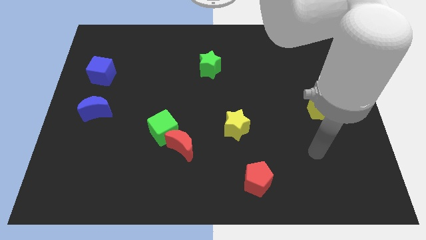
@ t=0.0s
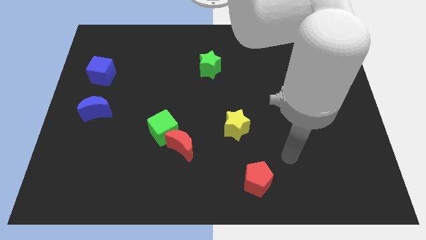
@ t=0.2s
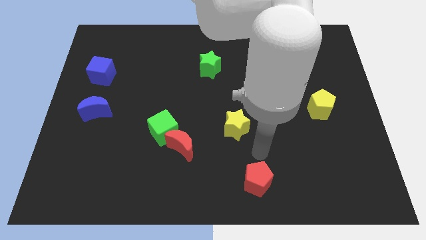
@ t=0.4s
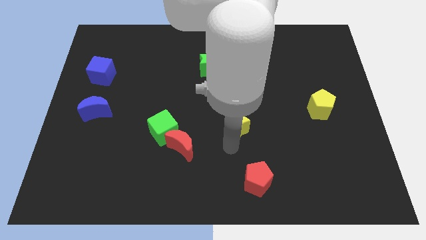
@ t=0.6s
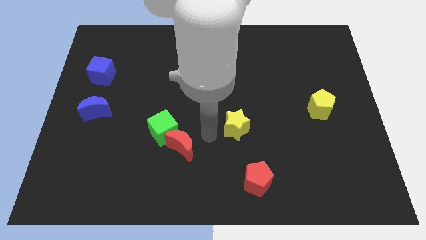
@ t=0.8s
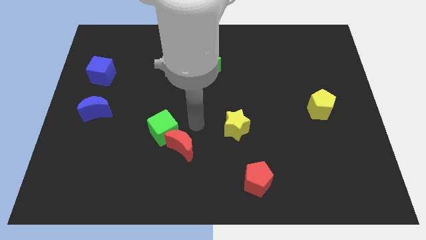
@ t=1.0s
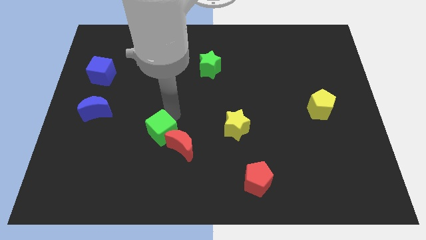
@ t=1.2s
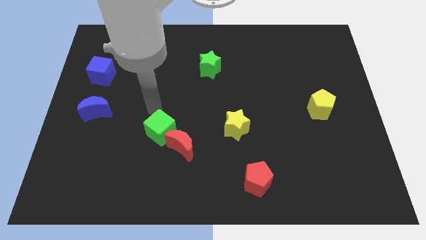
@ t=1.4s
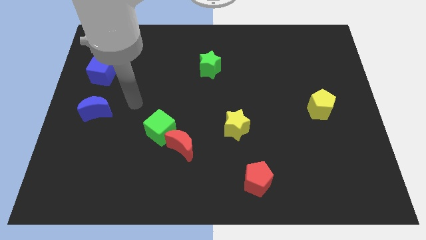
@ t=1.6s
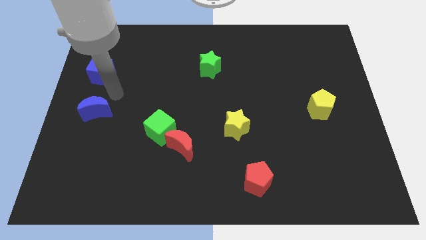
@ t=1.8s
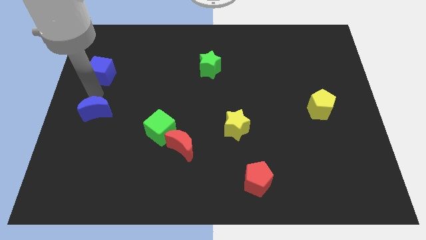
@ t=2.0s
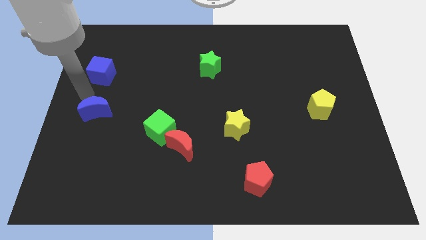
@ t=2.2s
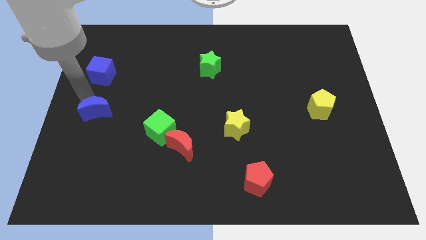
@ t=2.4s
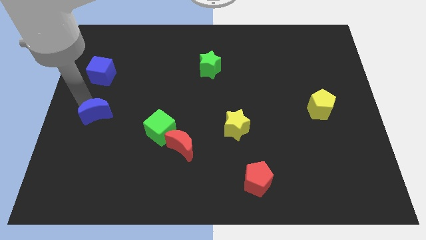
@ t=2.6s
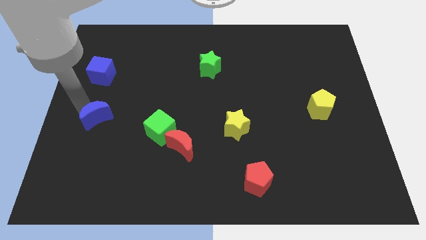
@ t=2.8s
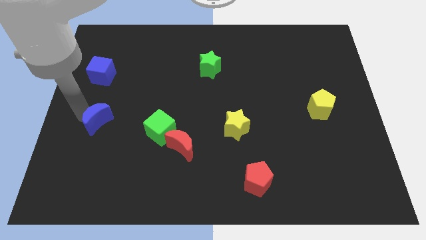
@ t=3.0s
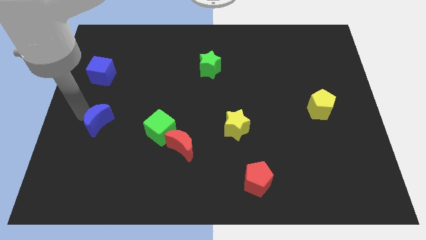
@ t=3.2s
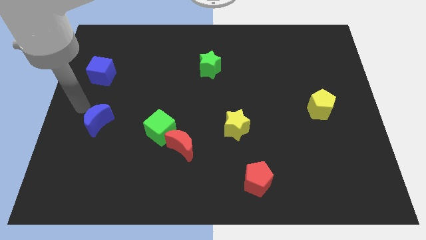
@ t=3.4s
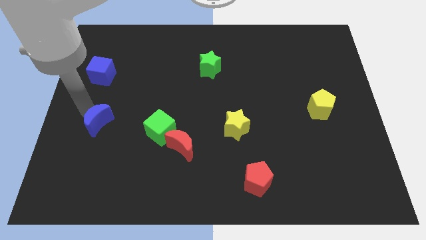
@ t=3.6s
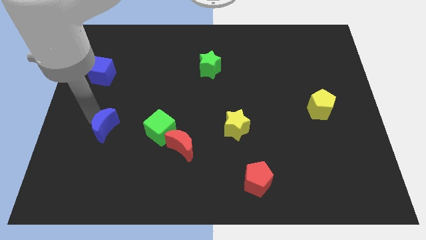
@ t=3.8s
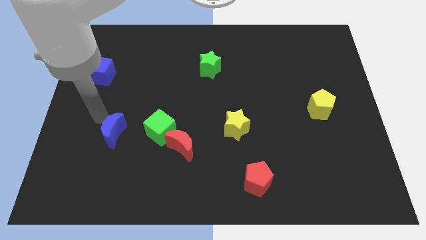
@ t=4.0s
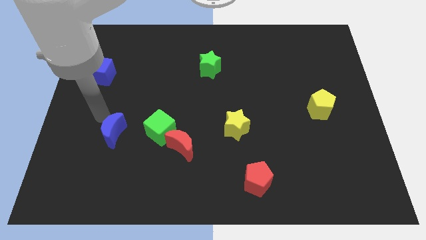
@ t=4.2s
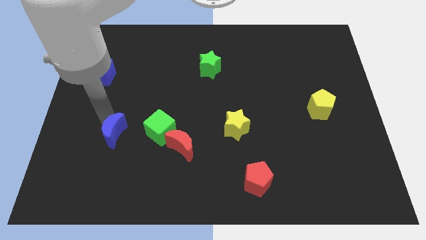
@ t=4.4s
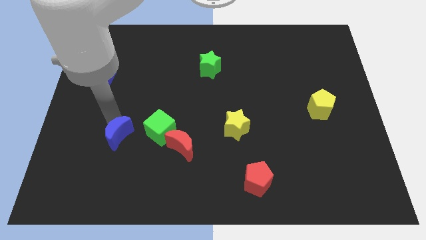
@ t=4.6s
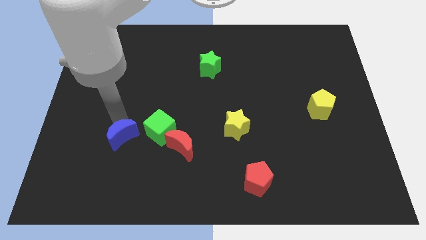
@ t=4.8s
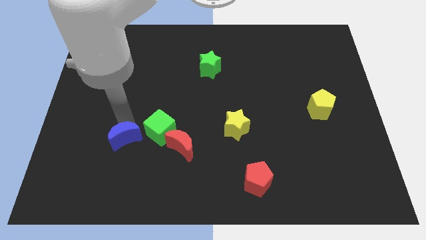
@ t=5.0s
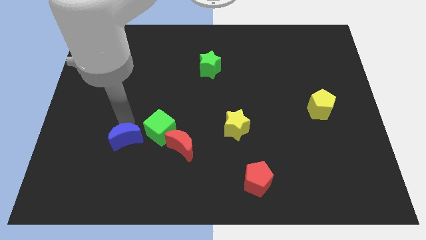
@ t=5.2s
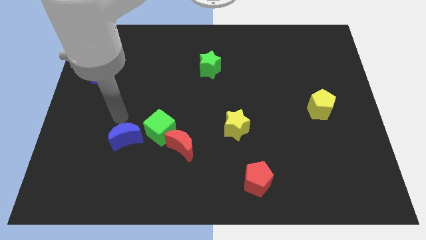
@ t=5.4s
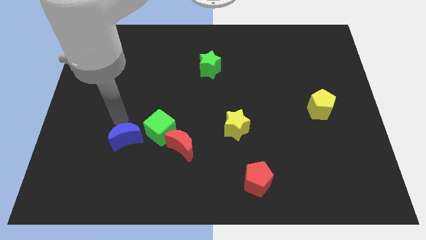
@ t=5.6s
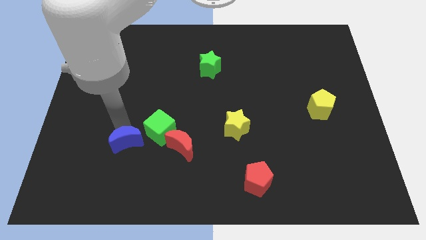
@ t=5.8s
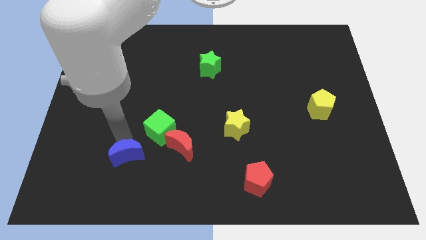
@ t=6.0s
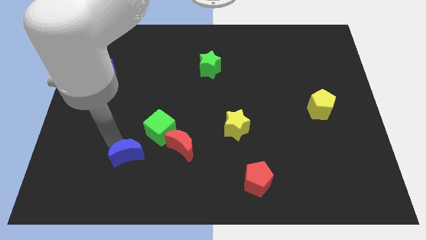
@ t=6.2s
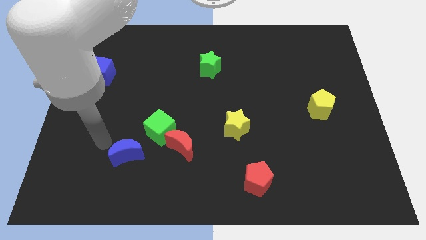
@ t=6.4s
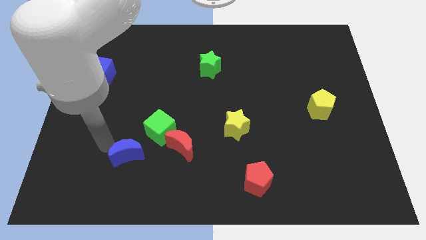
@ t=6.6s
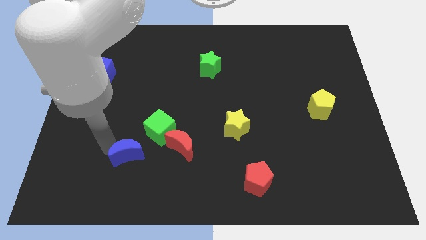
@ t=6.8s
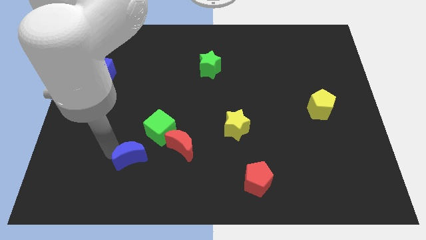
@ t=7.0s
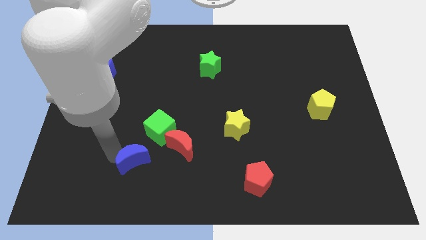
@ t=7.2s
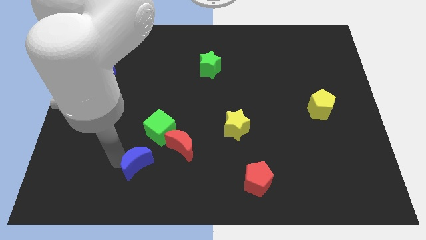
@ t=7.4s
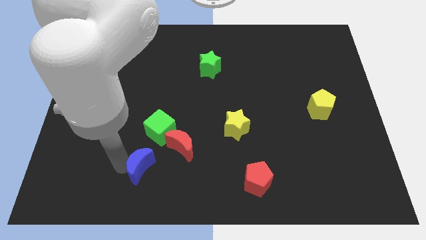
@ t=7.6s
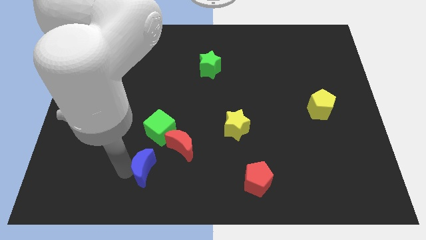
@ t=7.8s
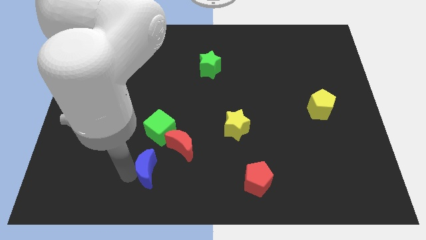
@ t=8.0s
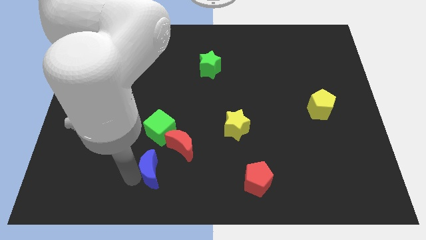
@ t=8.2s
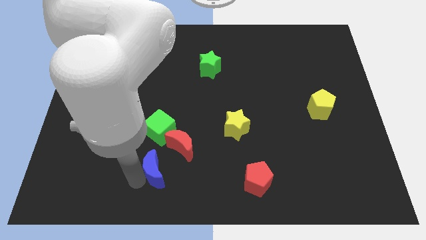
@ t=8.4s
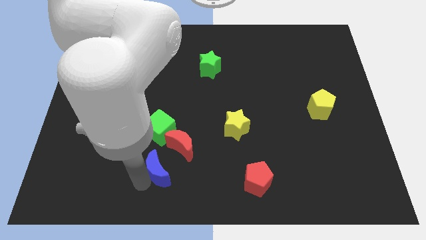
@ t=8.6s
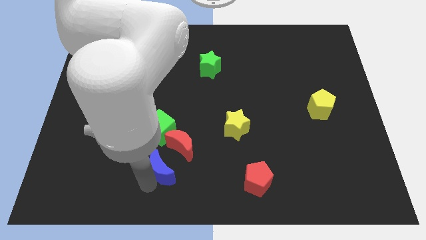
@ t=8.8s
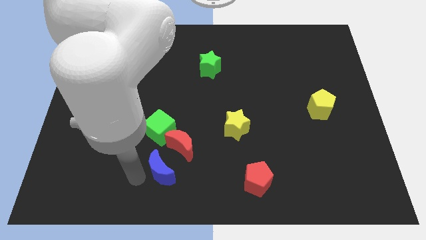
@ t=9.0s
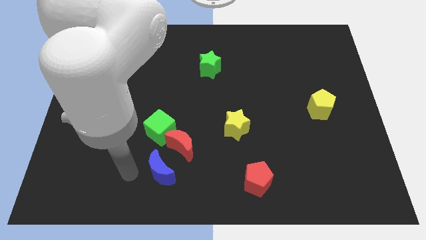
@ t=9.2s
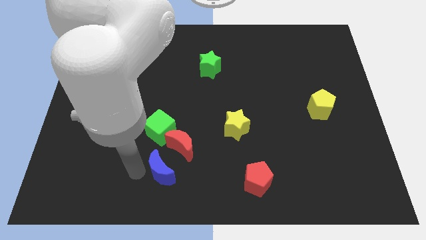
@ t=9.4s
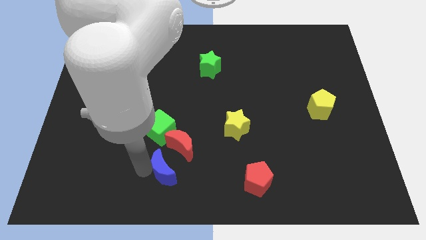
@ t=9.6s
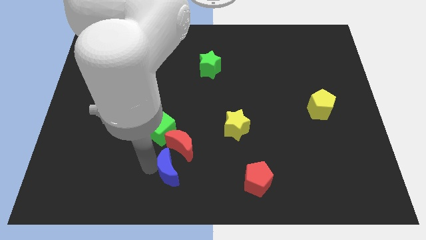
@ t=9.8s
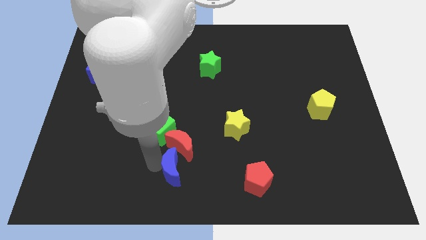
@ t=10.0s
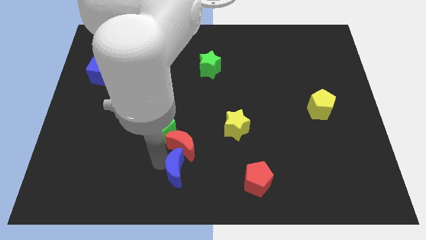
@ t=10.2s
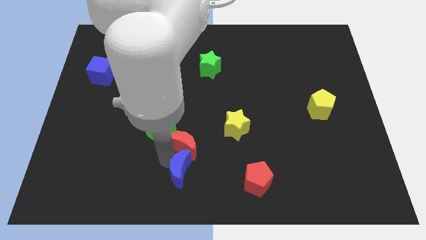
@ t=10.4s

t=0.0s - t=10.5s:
push the blue moon to the left of the red pentagon

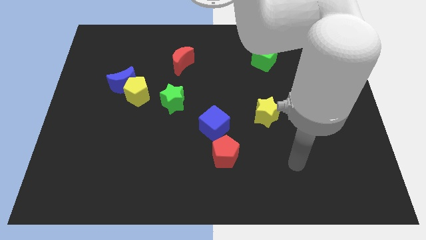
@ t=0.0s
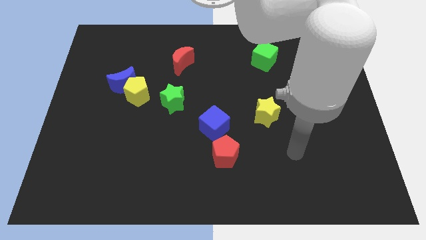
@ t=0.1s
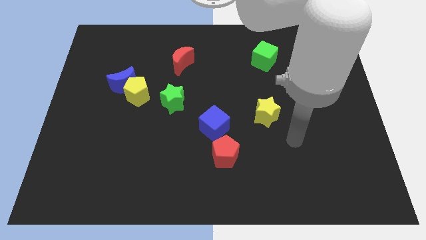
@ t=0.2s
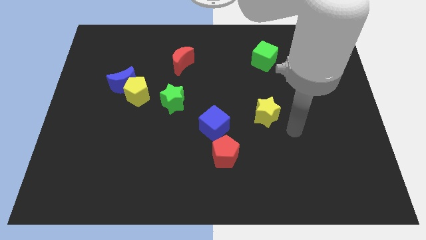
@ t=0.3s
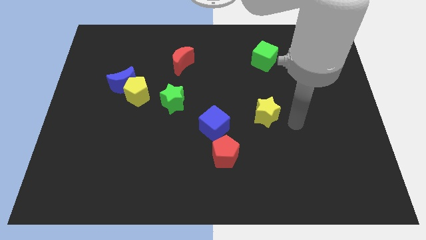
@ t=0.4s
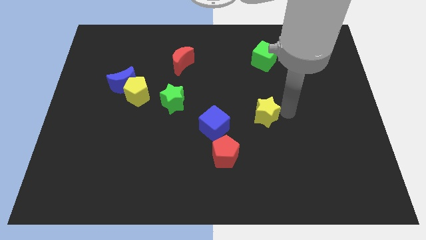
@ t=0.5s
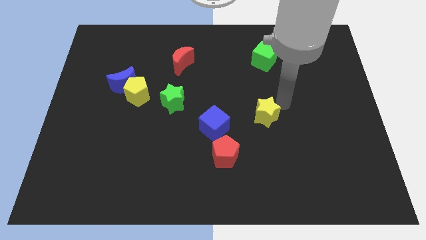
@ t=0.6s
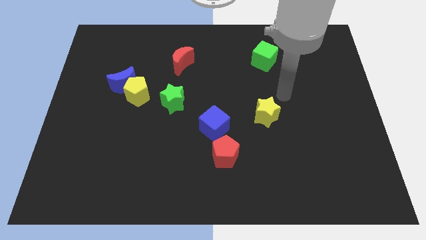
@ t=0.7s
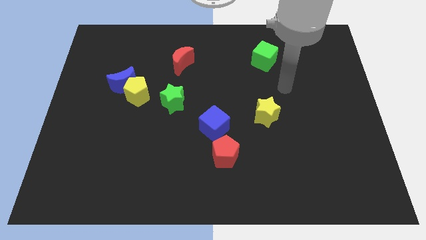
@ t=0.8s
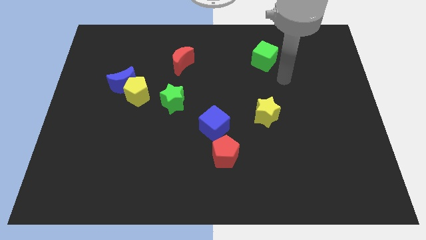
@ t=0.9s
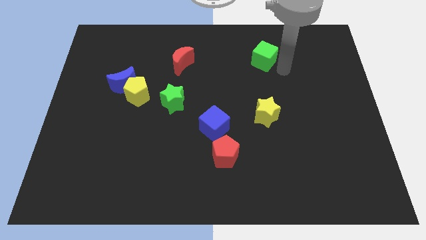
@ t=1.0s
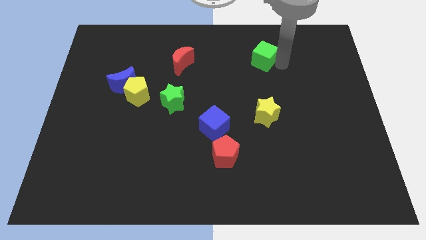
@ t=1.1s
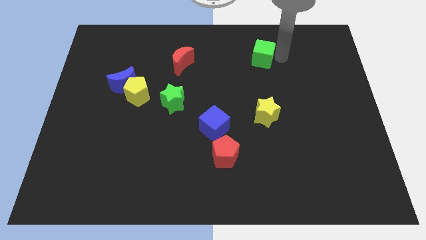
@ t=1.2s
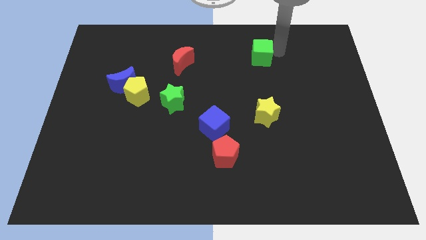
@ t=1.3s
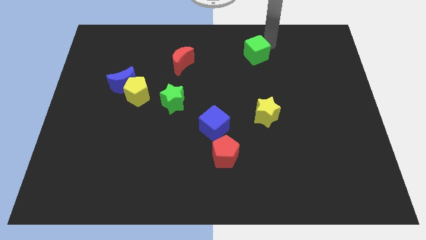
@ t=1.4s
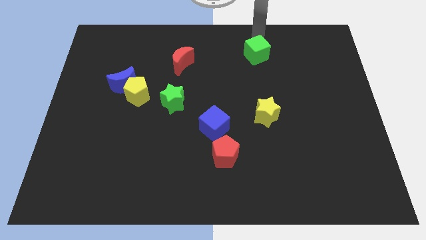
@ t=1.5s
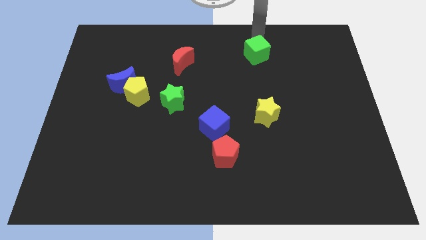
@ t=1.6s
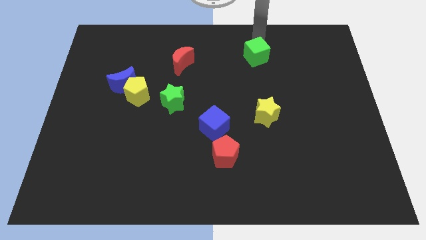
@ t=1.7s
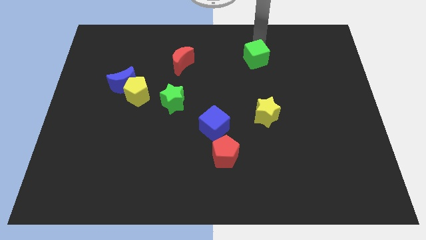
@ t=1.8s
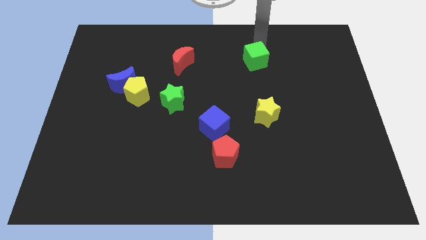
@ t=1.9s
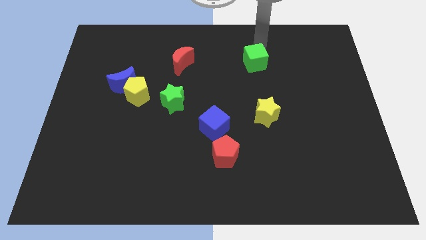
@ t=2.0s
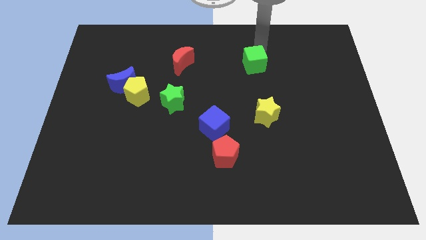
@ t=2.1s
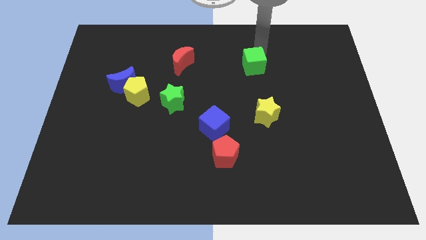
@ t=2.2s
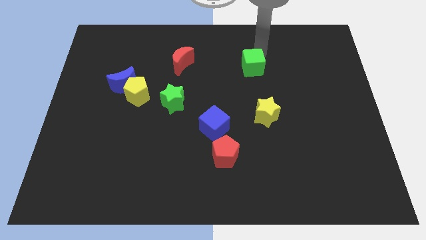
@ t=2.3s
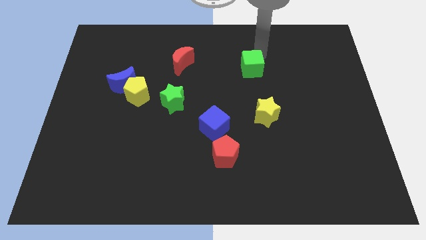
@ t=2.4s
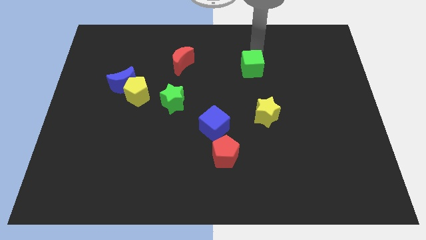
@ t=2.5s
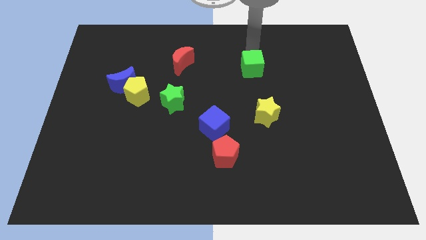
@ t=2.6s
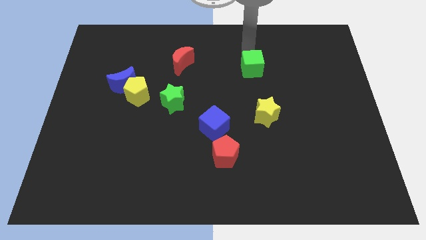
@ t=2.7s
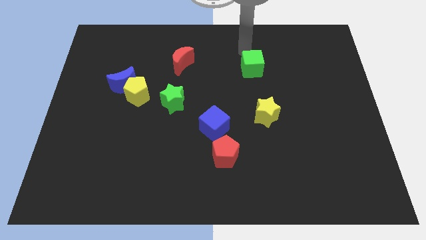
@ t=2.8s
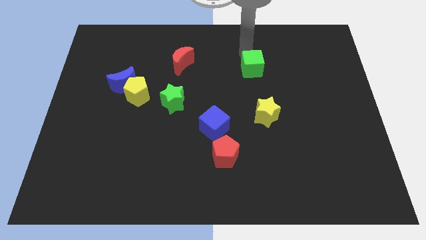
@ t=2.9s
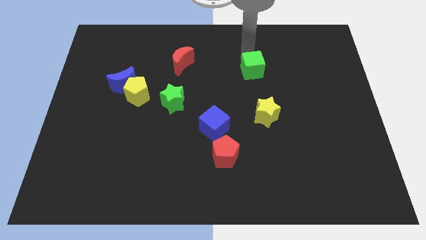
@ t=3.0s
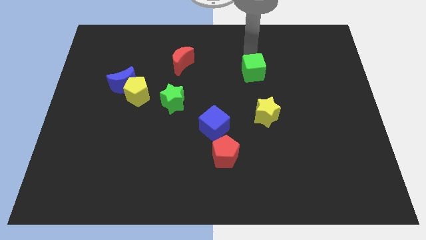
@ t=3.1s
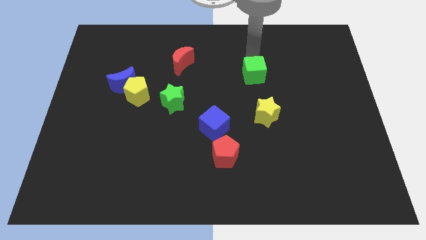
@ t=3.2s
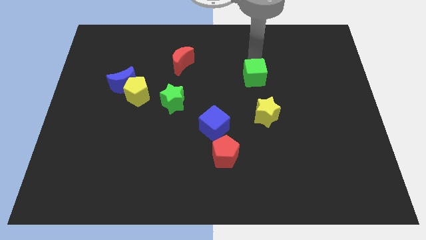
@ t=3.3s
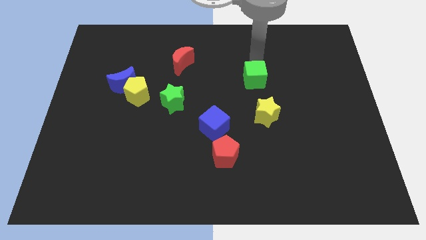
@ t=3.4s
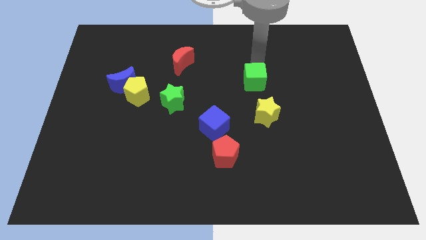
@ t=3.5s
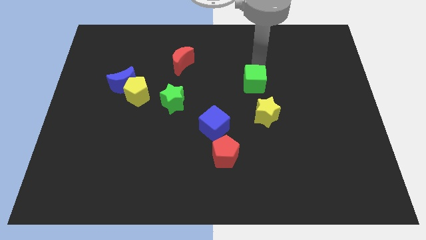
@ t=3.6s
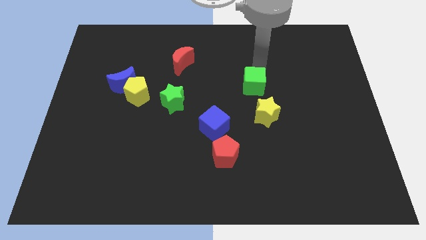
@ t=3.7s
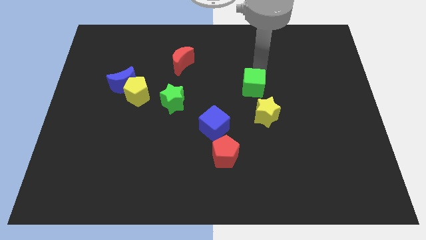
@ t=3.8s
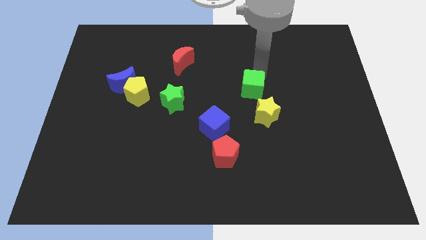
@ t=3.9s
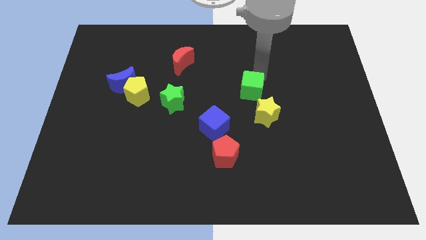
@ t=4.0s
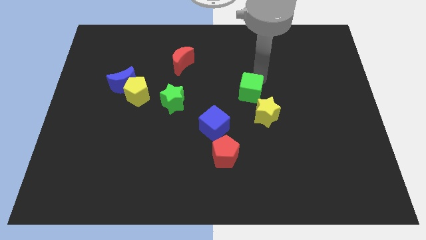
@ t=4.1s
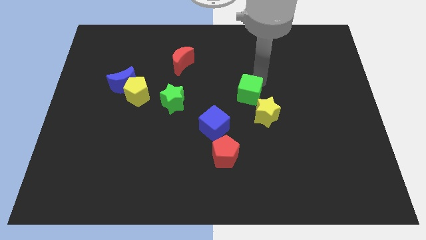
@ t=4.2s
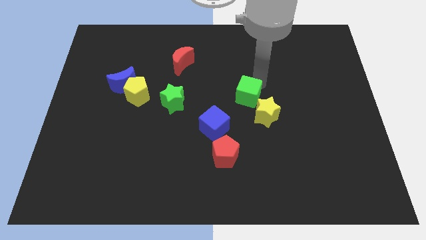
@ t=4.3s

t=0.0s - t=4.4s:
slide the green cube diagonally up and to the right of the blue cube
